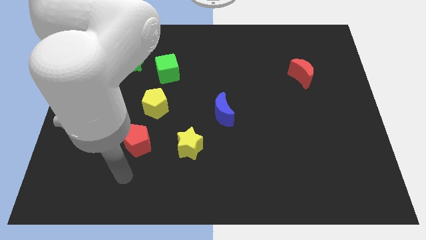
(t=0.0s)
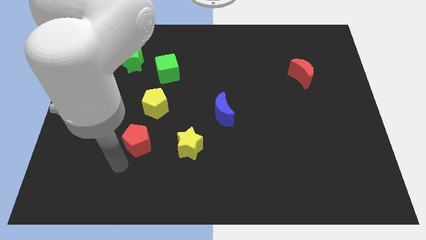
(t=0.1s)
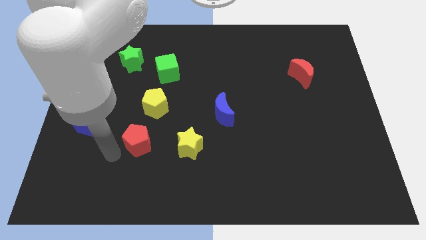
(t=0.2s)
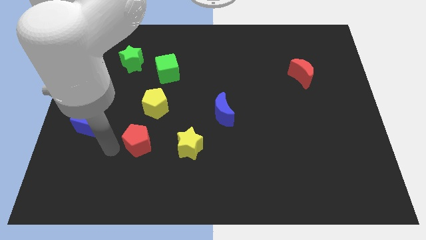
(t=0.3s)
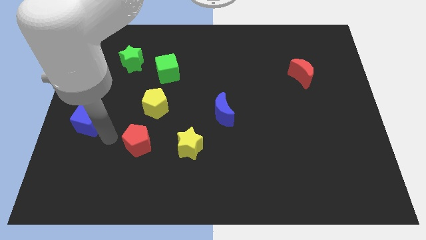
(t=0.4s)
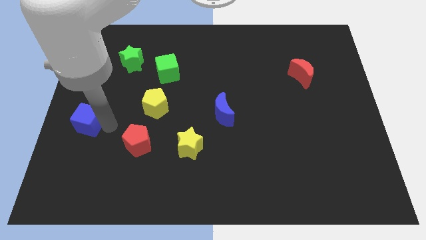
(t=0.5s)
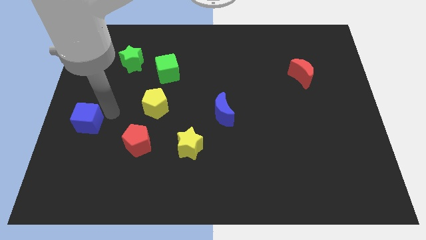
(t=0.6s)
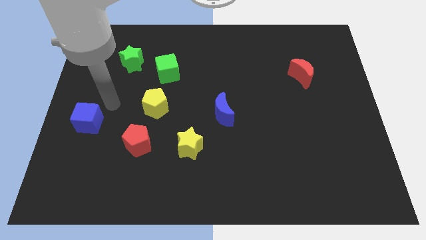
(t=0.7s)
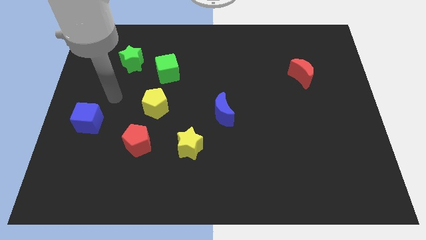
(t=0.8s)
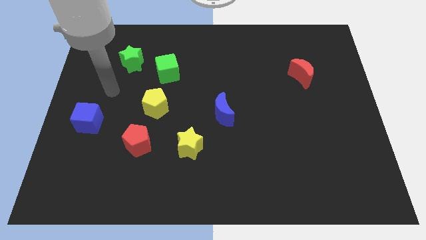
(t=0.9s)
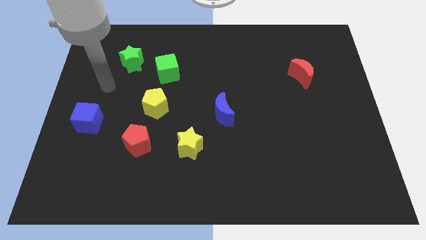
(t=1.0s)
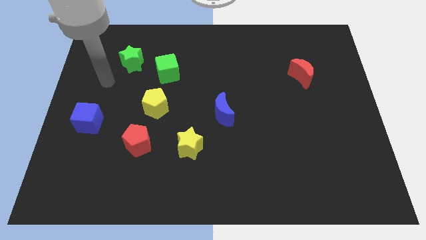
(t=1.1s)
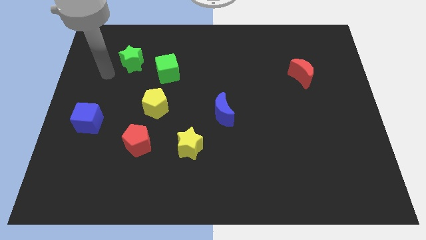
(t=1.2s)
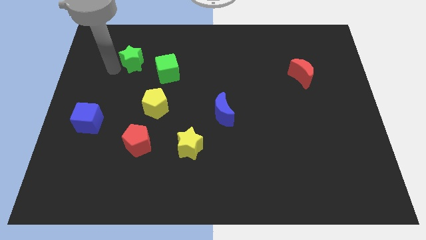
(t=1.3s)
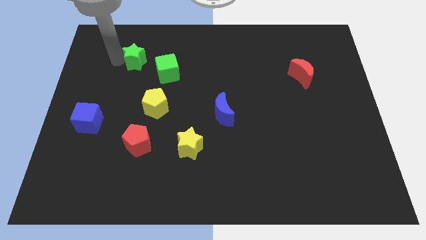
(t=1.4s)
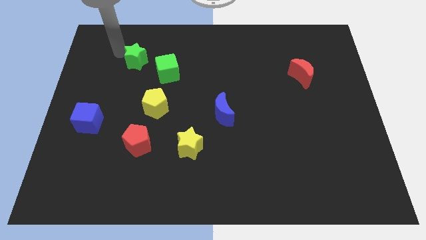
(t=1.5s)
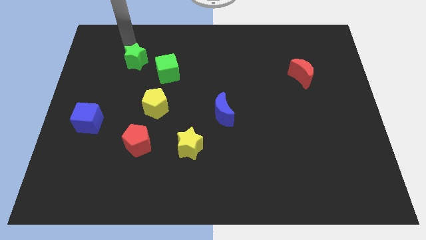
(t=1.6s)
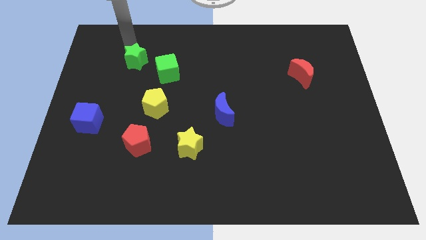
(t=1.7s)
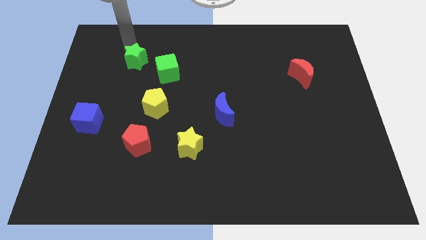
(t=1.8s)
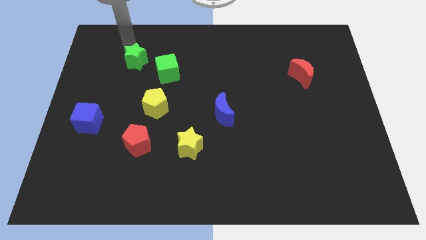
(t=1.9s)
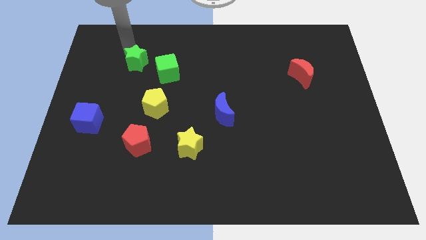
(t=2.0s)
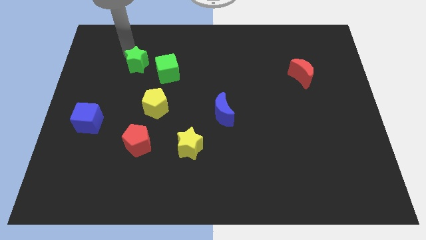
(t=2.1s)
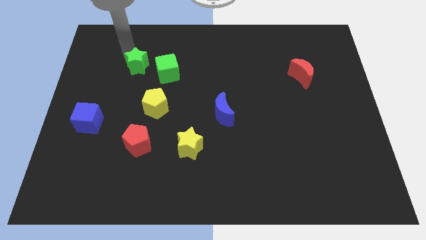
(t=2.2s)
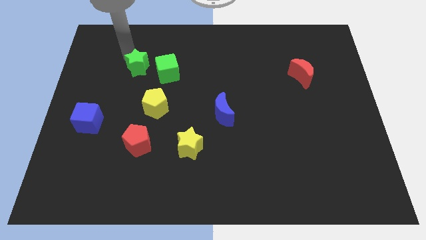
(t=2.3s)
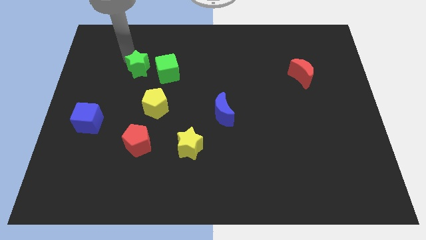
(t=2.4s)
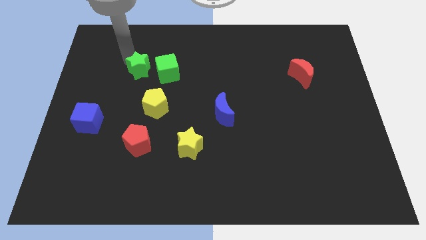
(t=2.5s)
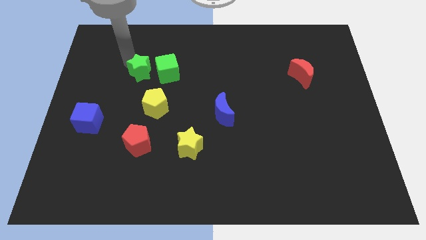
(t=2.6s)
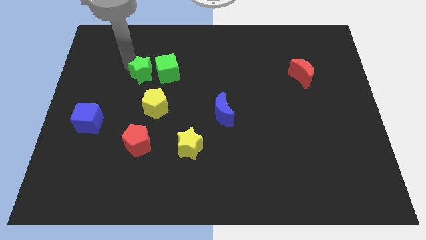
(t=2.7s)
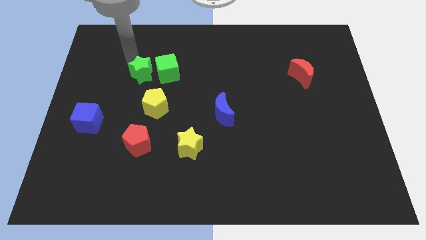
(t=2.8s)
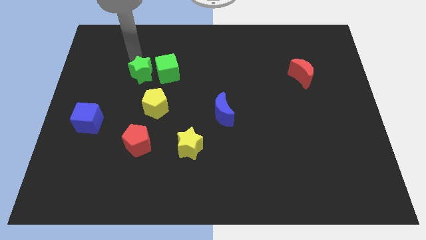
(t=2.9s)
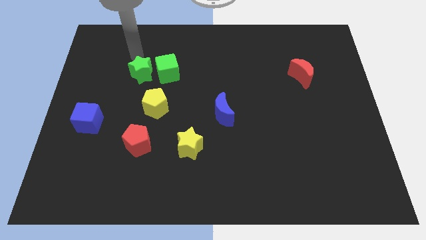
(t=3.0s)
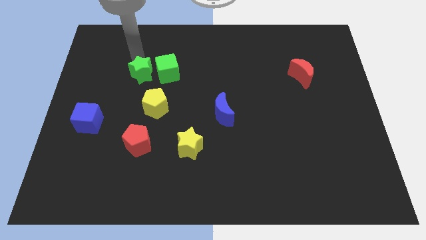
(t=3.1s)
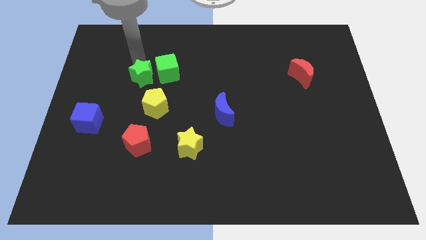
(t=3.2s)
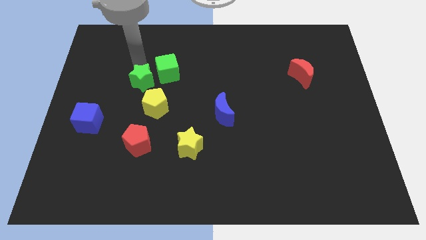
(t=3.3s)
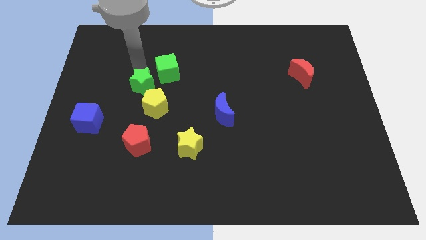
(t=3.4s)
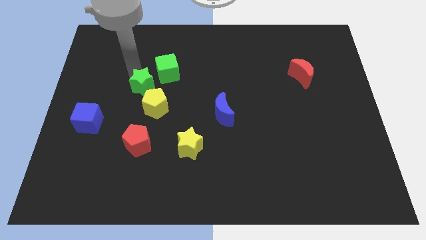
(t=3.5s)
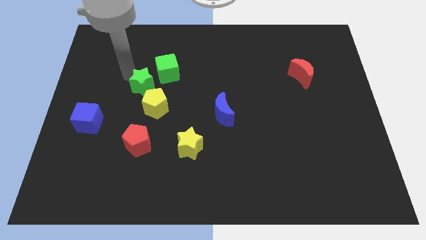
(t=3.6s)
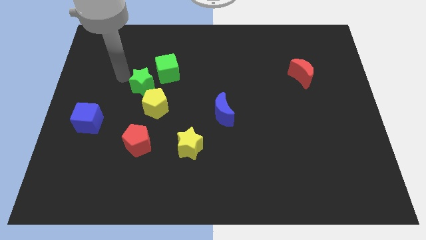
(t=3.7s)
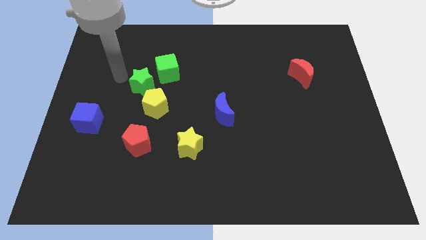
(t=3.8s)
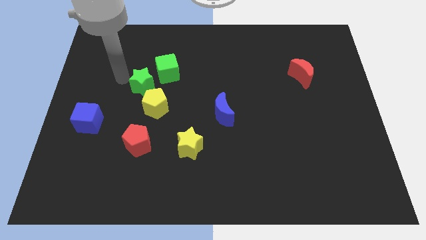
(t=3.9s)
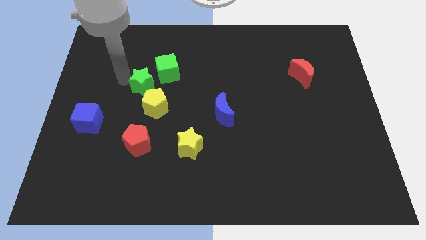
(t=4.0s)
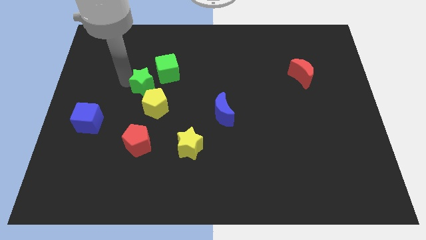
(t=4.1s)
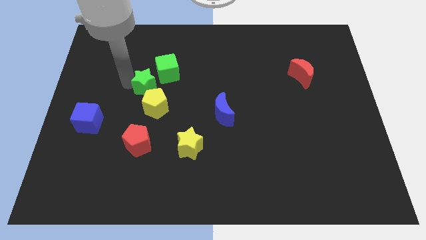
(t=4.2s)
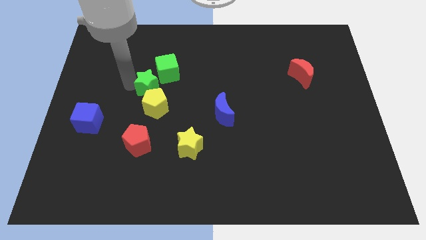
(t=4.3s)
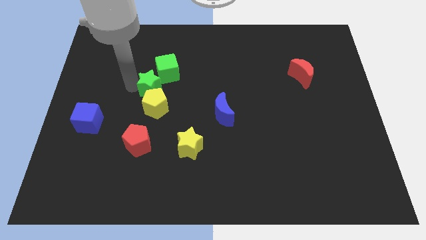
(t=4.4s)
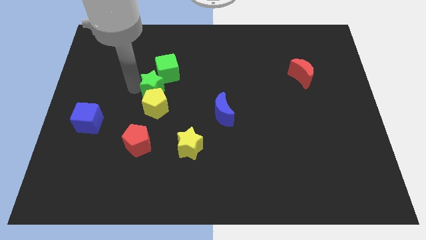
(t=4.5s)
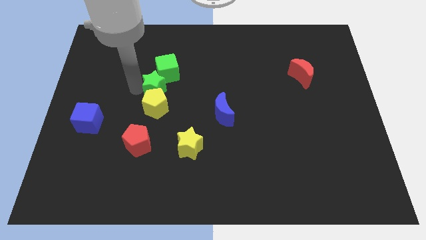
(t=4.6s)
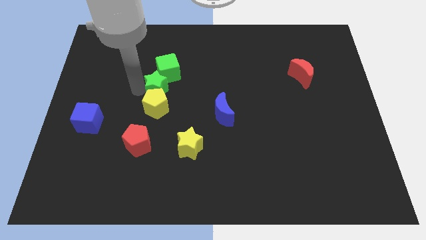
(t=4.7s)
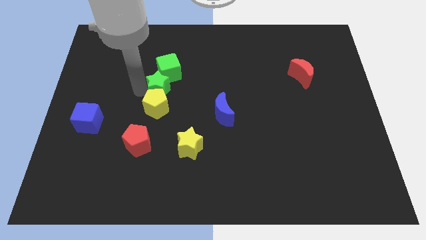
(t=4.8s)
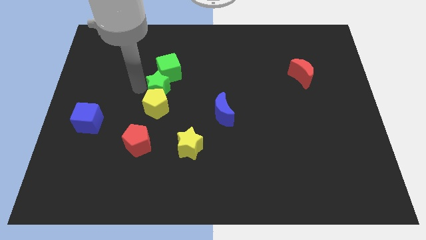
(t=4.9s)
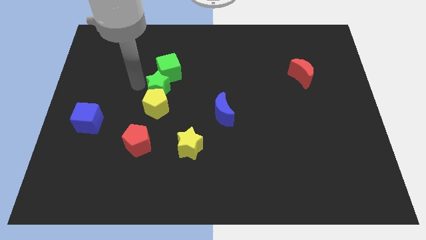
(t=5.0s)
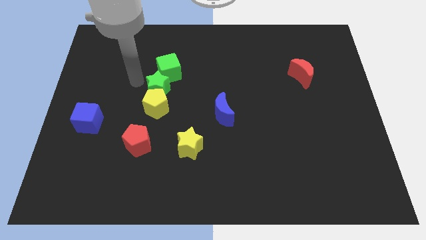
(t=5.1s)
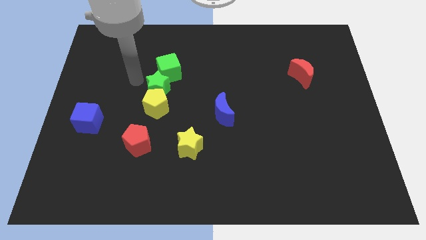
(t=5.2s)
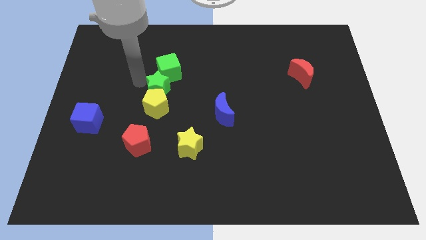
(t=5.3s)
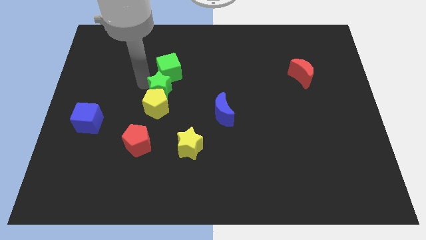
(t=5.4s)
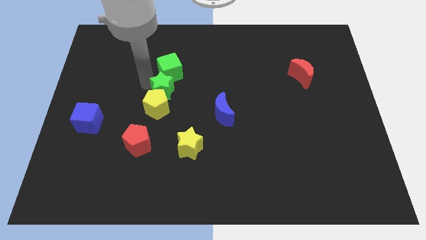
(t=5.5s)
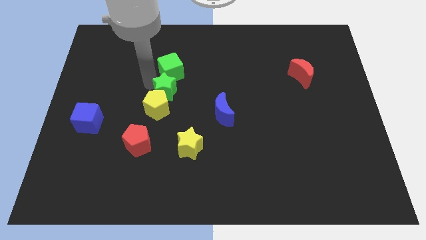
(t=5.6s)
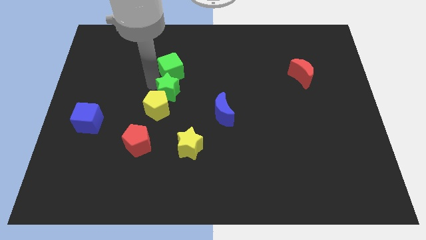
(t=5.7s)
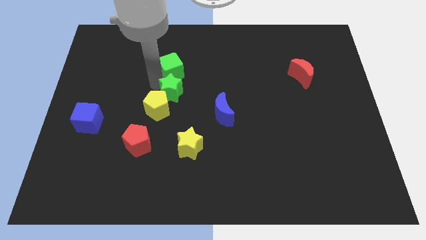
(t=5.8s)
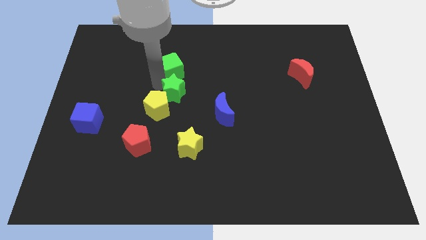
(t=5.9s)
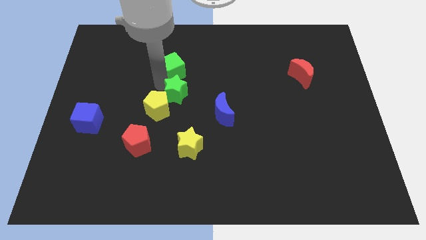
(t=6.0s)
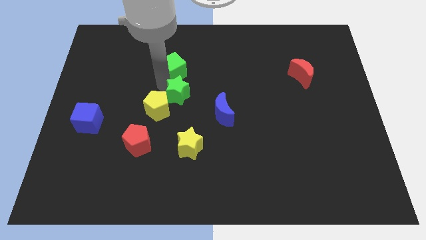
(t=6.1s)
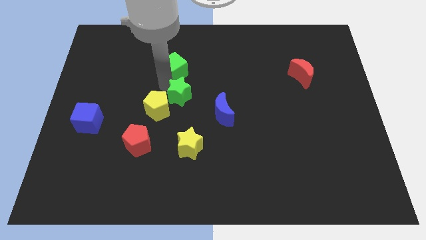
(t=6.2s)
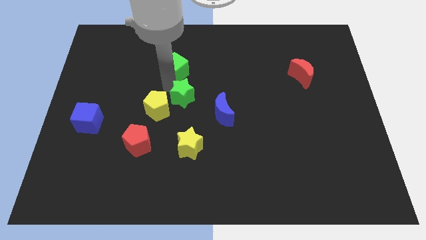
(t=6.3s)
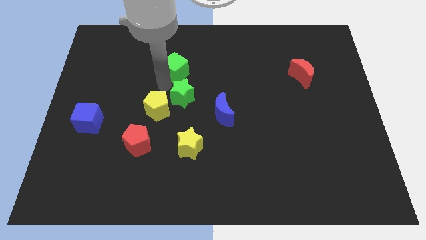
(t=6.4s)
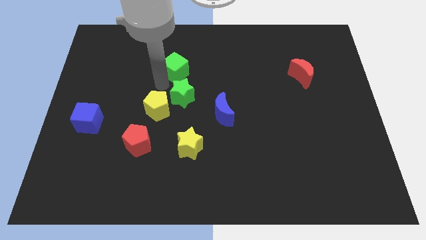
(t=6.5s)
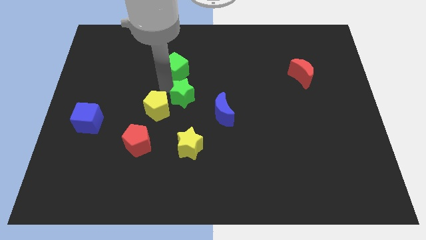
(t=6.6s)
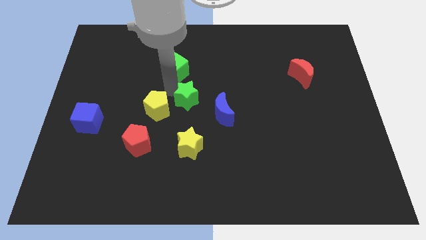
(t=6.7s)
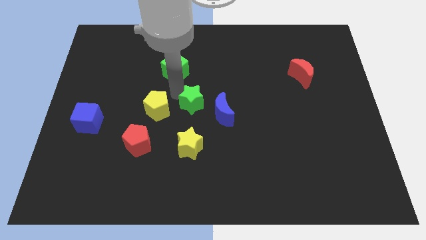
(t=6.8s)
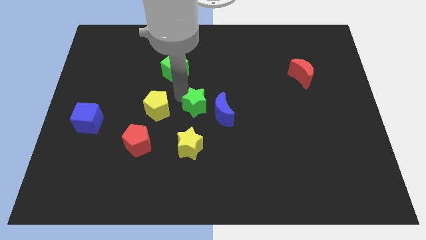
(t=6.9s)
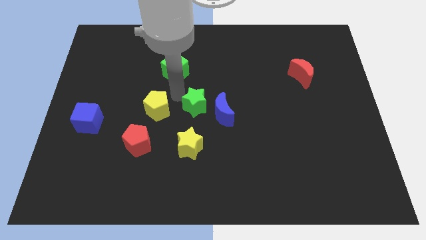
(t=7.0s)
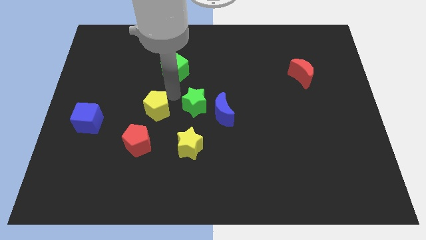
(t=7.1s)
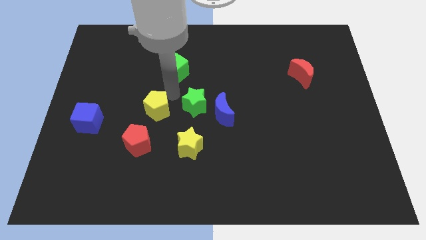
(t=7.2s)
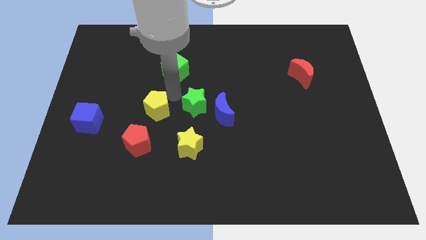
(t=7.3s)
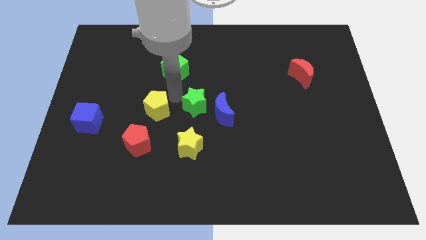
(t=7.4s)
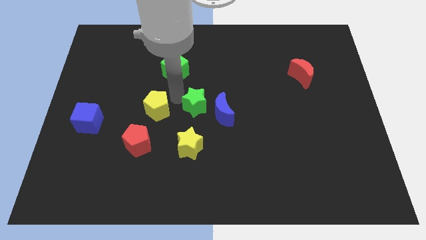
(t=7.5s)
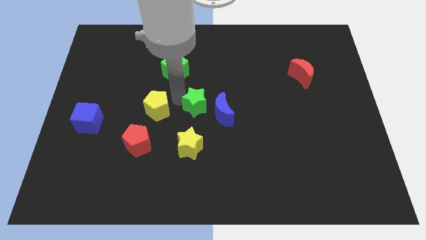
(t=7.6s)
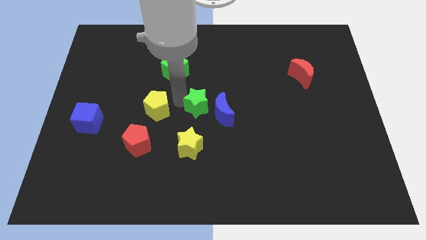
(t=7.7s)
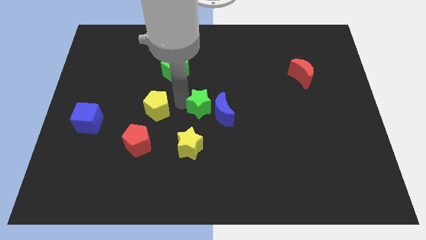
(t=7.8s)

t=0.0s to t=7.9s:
slide the green star close to the blue moon
